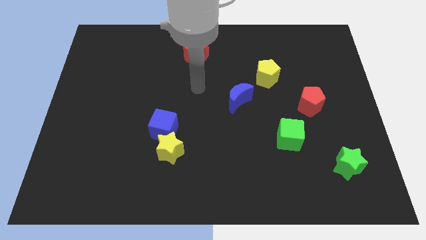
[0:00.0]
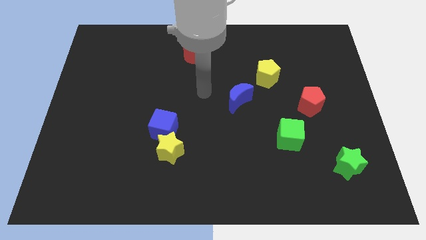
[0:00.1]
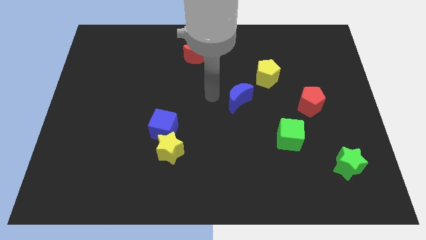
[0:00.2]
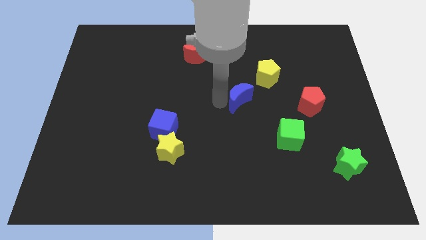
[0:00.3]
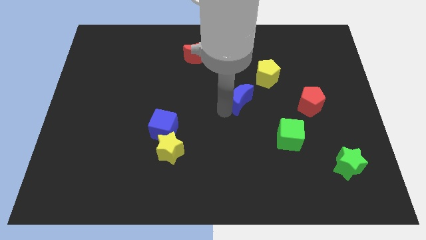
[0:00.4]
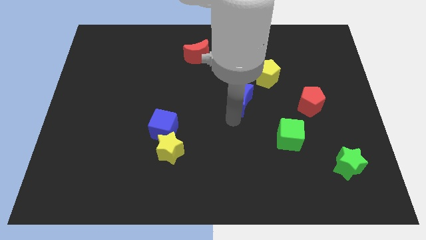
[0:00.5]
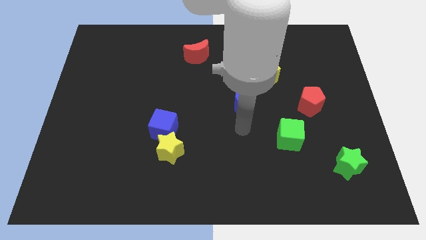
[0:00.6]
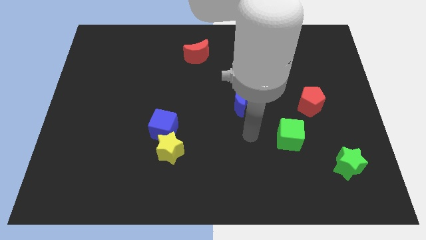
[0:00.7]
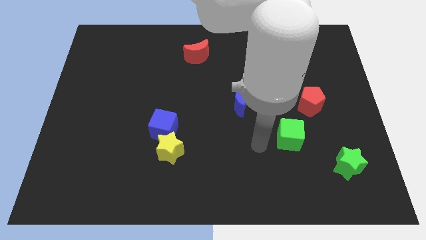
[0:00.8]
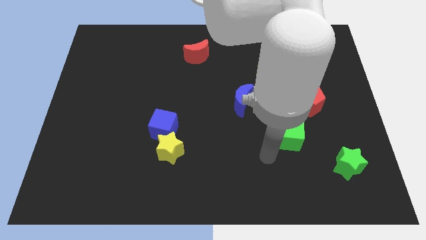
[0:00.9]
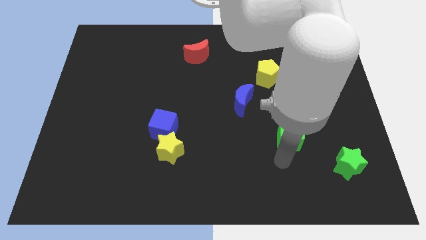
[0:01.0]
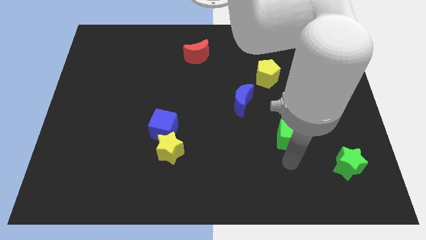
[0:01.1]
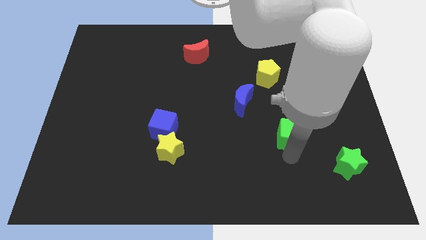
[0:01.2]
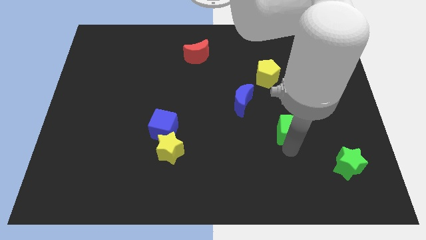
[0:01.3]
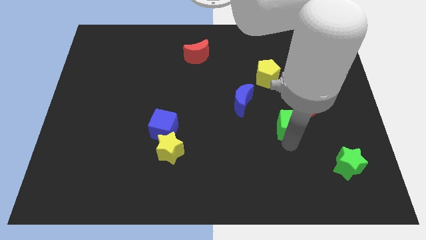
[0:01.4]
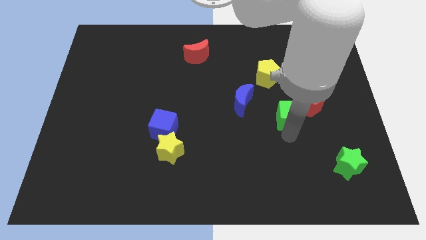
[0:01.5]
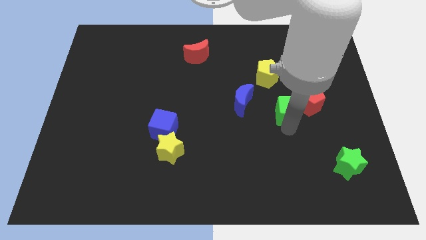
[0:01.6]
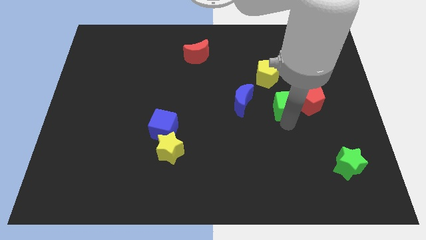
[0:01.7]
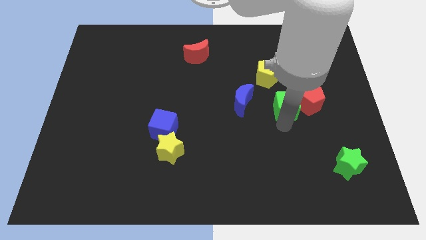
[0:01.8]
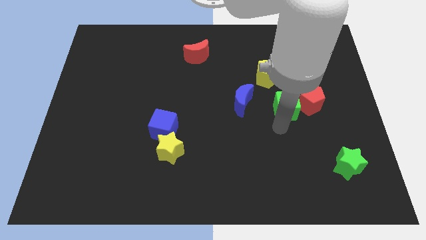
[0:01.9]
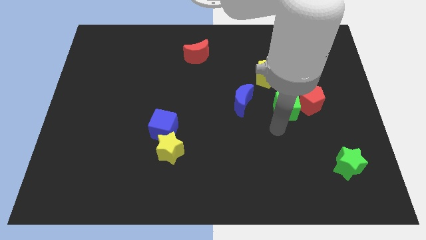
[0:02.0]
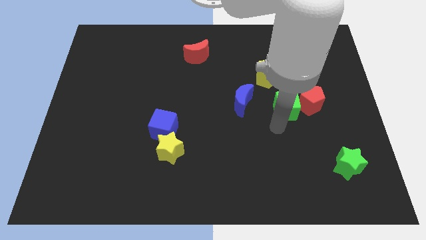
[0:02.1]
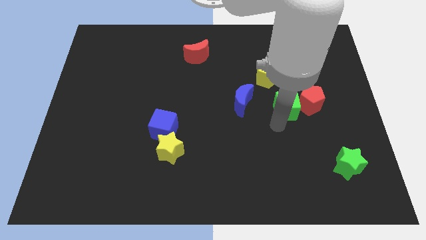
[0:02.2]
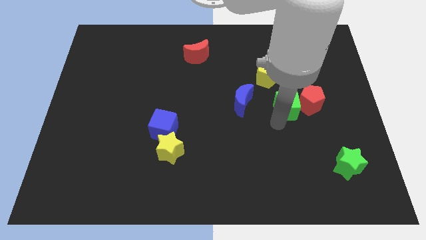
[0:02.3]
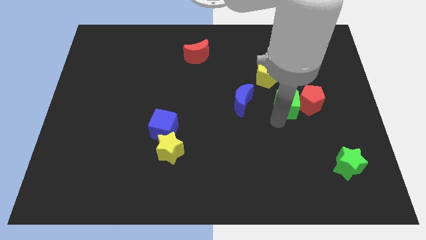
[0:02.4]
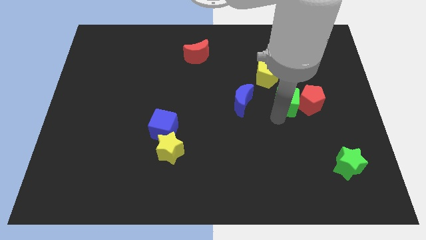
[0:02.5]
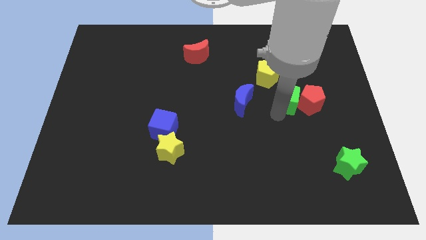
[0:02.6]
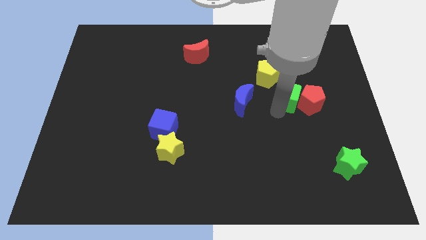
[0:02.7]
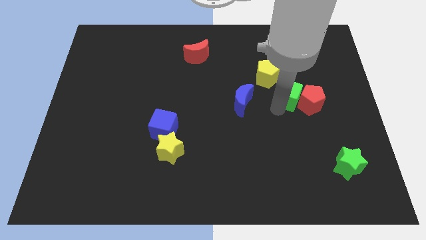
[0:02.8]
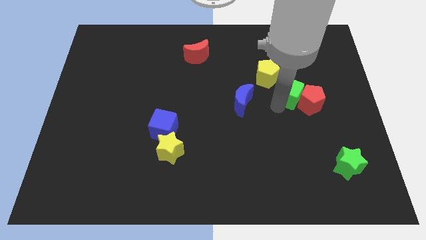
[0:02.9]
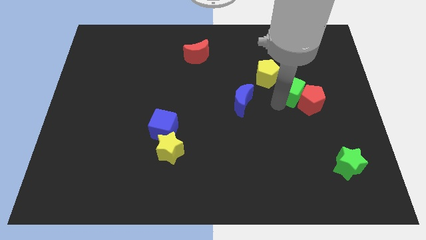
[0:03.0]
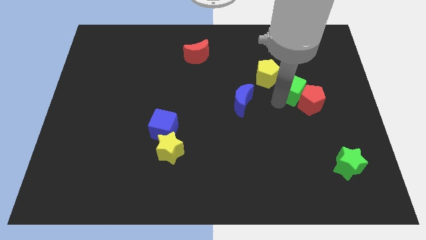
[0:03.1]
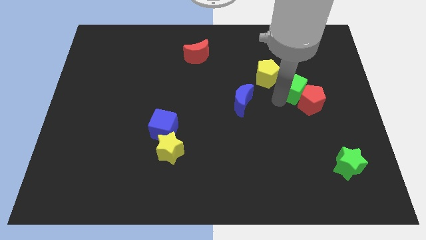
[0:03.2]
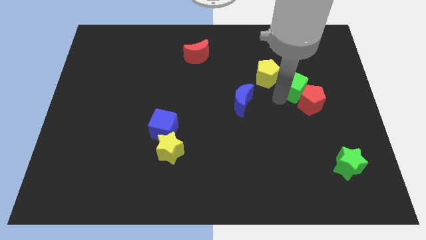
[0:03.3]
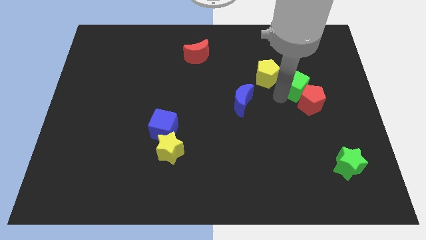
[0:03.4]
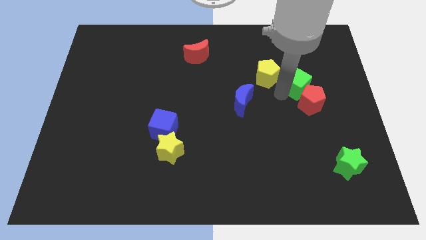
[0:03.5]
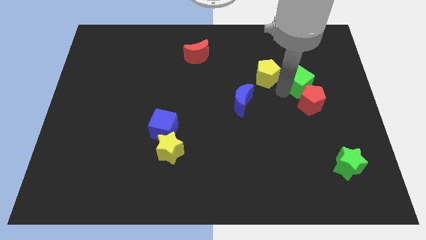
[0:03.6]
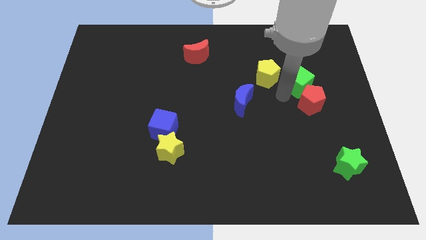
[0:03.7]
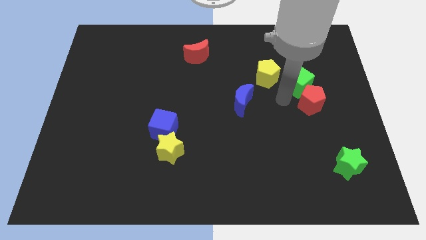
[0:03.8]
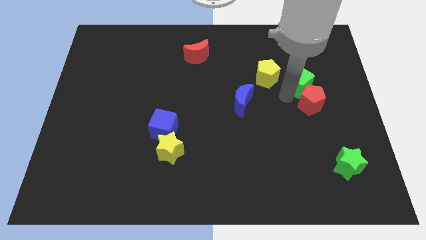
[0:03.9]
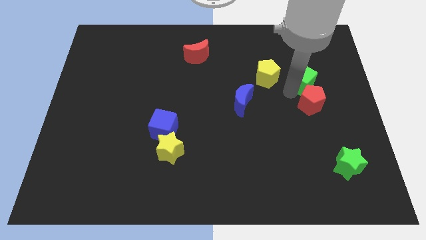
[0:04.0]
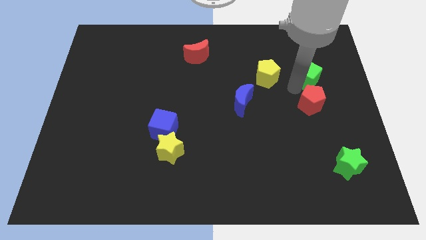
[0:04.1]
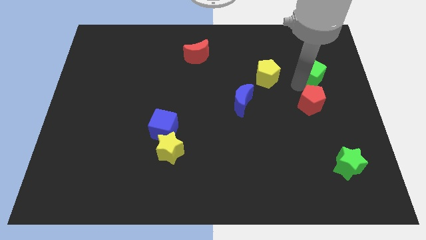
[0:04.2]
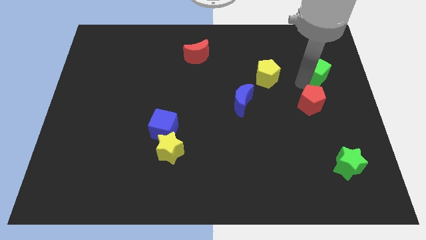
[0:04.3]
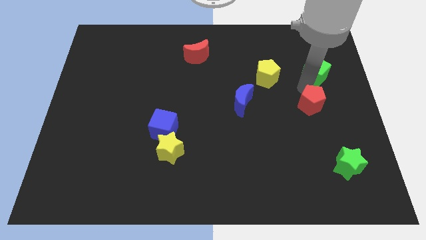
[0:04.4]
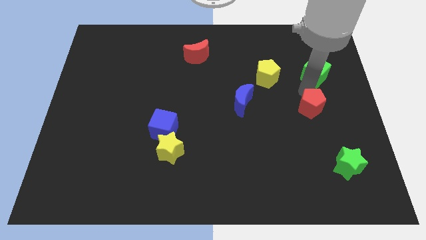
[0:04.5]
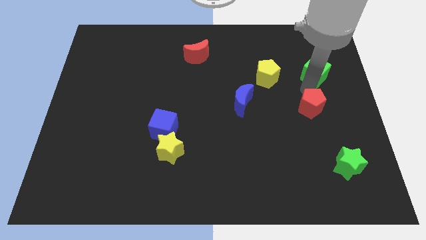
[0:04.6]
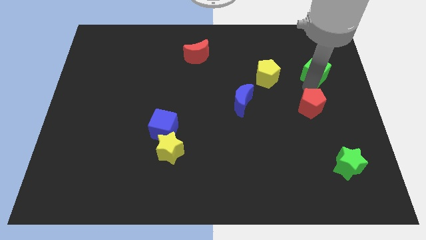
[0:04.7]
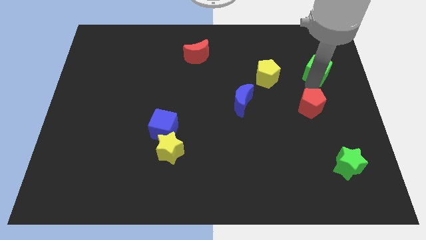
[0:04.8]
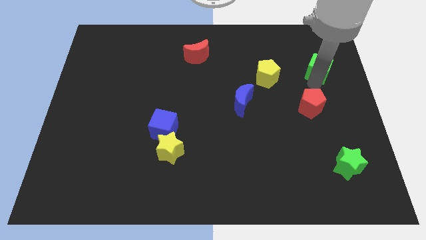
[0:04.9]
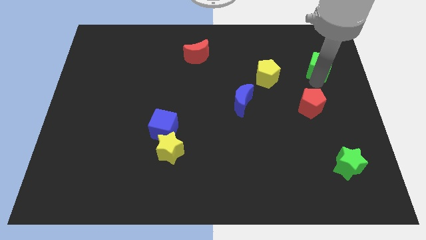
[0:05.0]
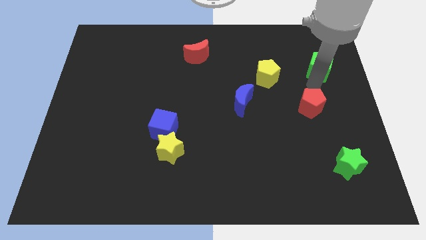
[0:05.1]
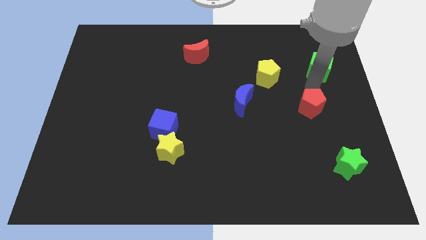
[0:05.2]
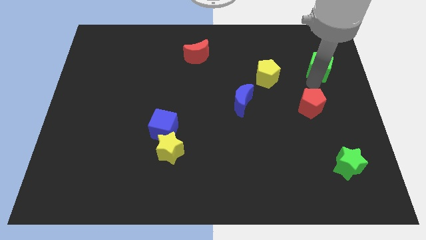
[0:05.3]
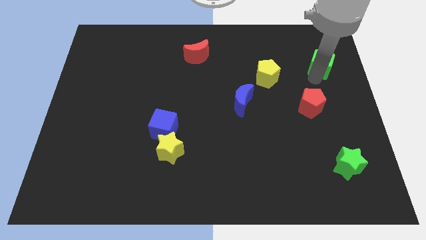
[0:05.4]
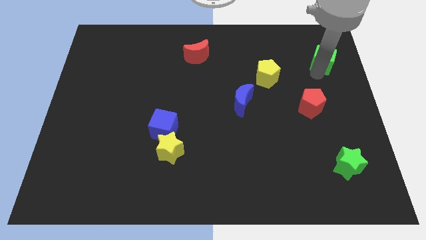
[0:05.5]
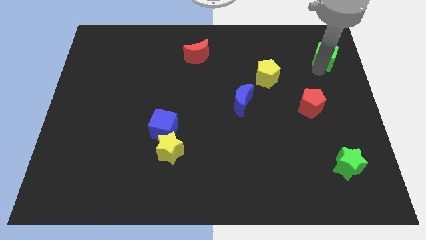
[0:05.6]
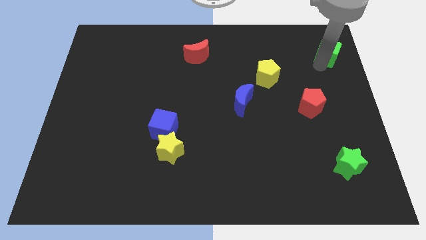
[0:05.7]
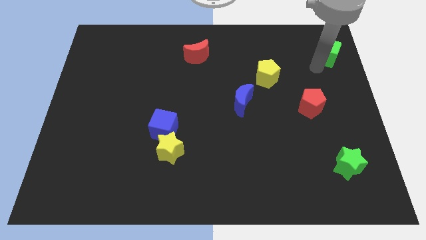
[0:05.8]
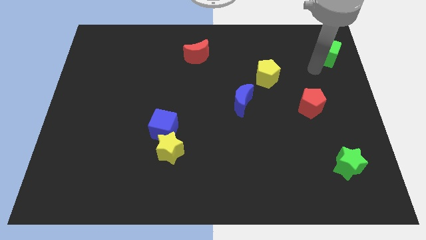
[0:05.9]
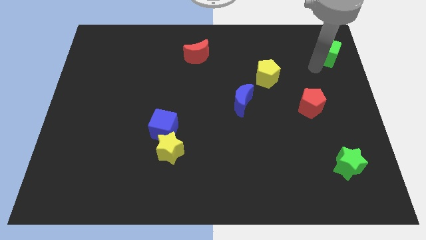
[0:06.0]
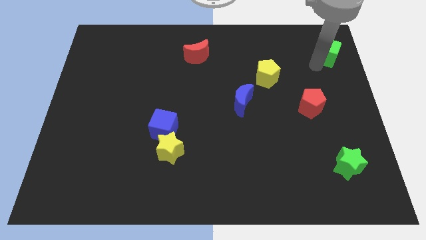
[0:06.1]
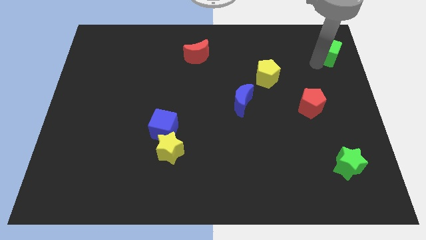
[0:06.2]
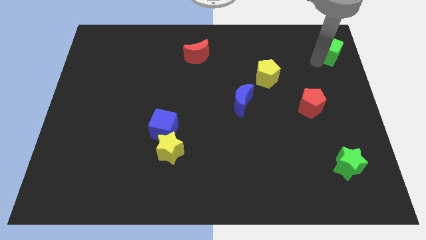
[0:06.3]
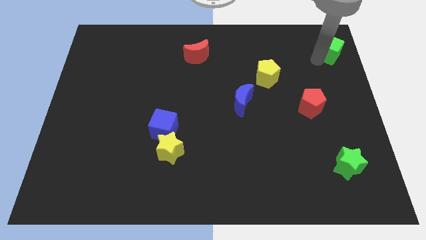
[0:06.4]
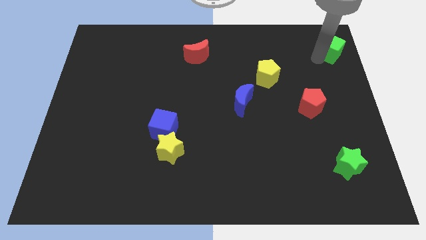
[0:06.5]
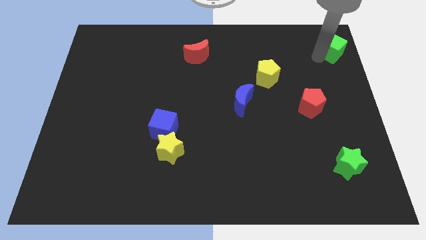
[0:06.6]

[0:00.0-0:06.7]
slide the green cube to the top right

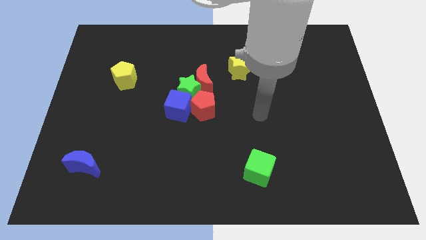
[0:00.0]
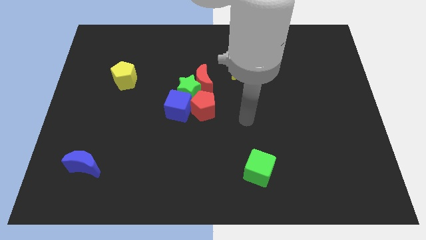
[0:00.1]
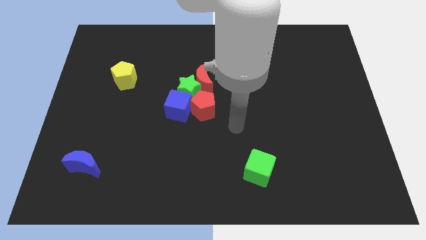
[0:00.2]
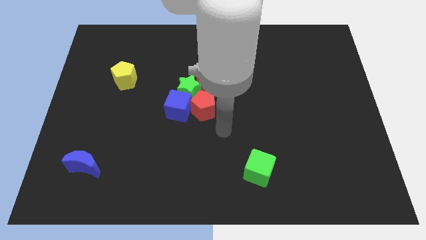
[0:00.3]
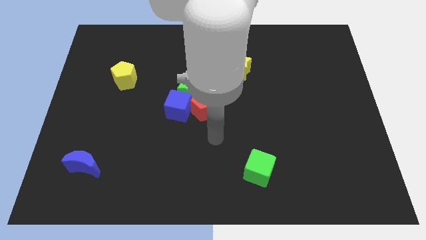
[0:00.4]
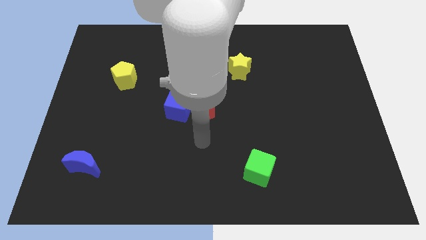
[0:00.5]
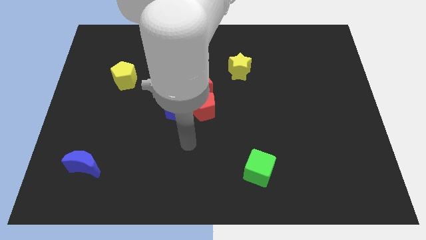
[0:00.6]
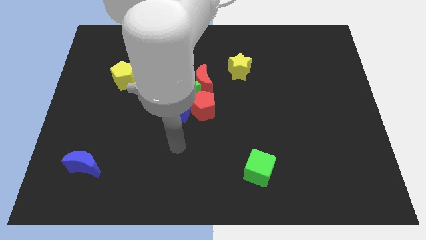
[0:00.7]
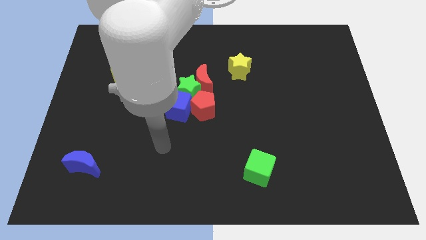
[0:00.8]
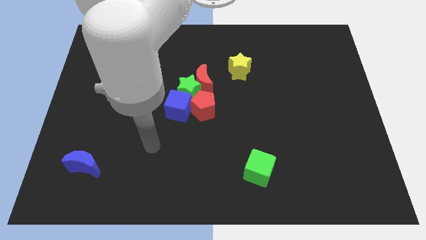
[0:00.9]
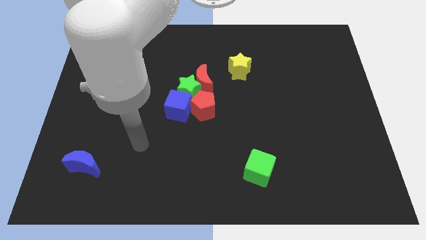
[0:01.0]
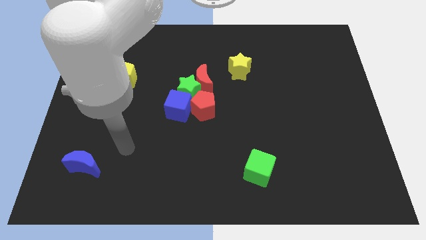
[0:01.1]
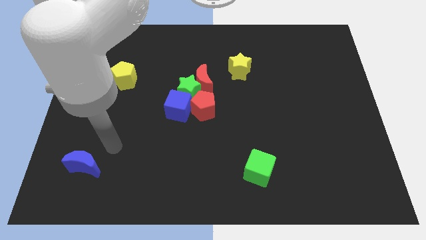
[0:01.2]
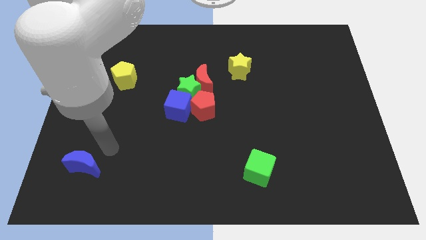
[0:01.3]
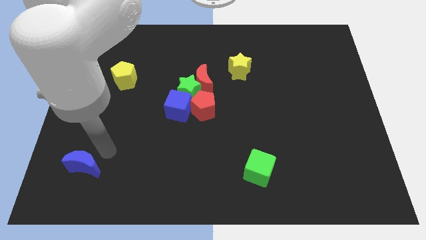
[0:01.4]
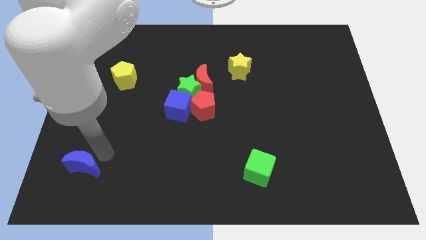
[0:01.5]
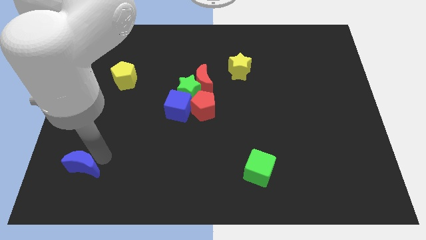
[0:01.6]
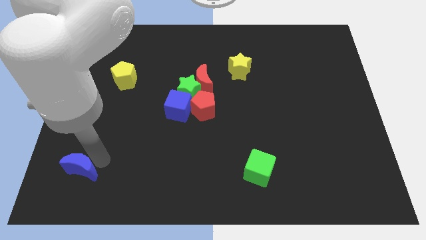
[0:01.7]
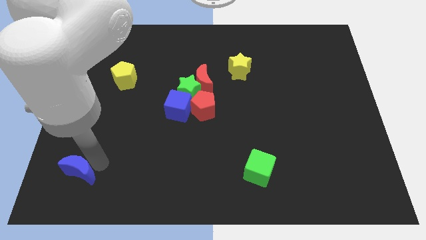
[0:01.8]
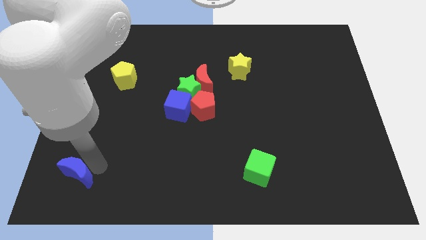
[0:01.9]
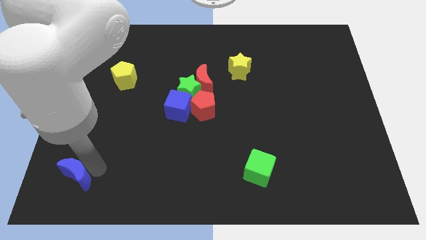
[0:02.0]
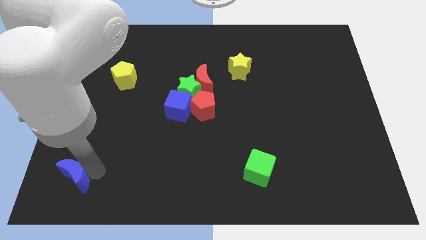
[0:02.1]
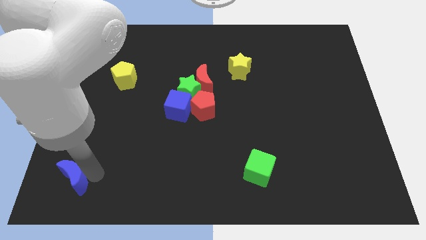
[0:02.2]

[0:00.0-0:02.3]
move the blue moon to the bottom left of the board

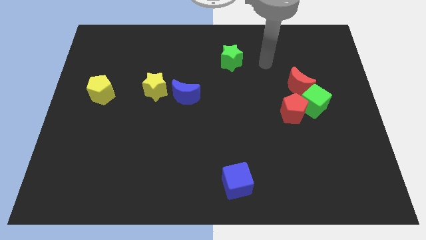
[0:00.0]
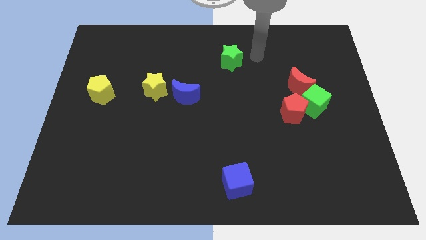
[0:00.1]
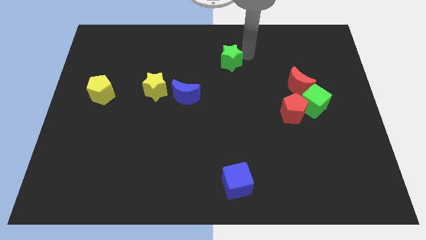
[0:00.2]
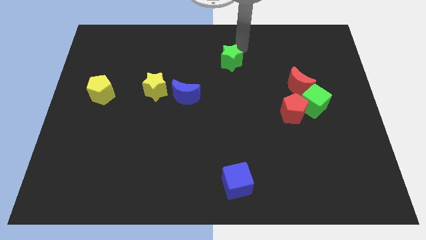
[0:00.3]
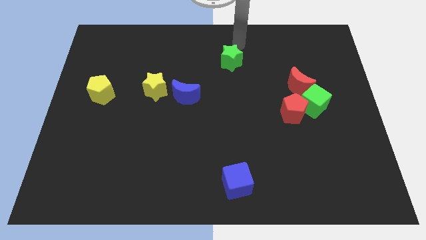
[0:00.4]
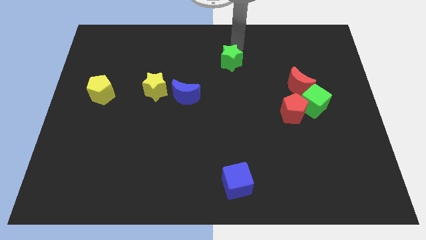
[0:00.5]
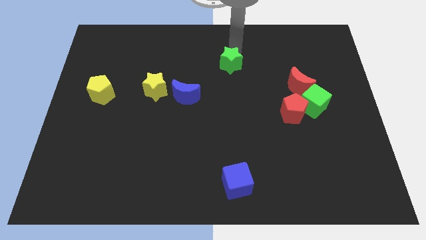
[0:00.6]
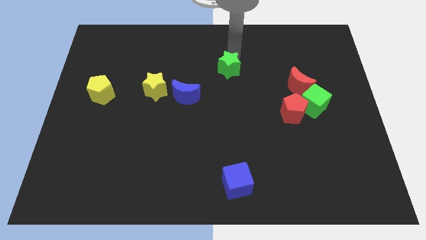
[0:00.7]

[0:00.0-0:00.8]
put the green star to the center
